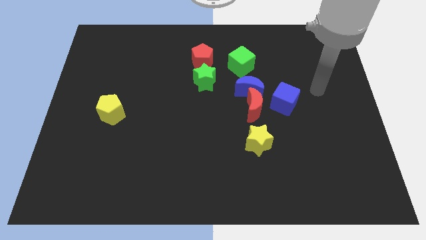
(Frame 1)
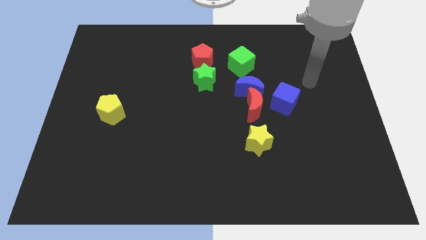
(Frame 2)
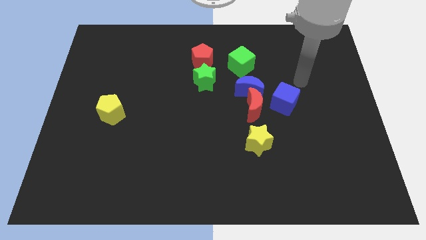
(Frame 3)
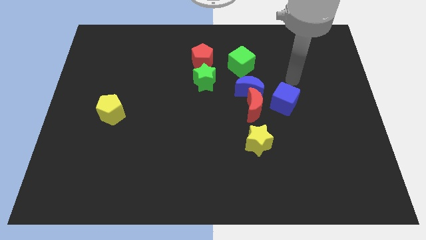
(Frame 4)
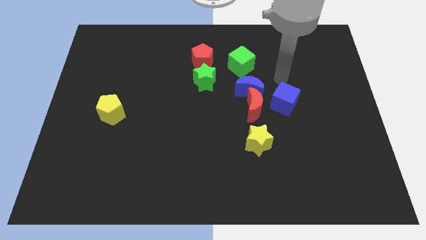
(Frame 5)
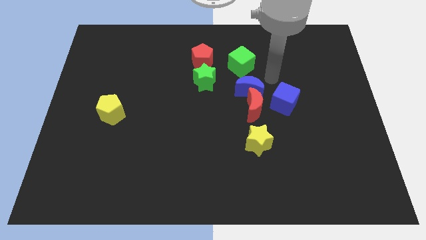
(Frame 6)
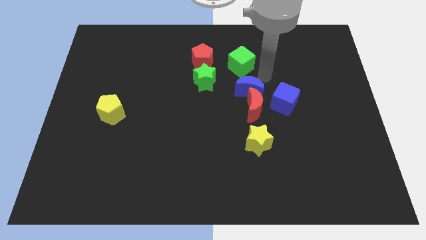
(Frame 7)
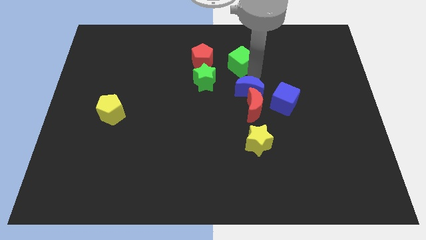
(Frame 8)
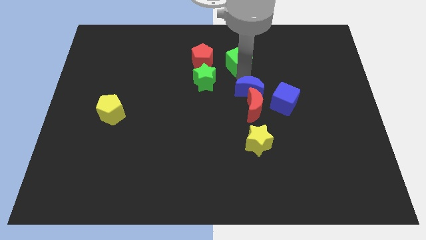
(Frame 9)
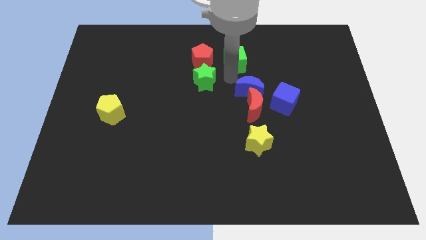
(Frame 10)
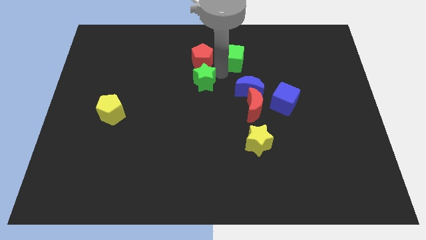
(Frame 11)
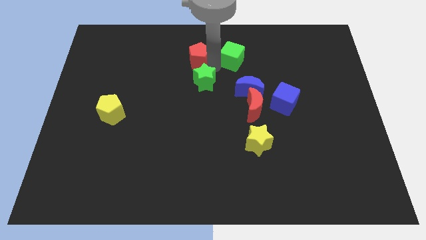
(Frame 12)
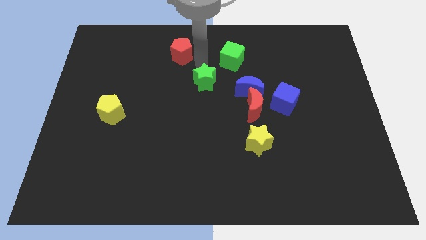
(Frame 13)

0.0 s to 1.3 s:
move the green star away from the red pentagon

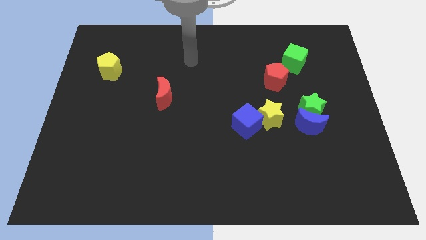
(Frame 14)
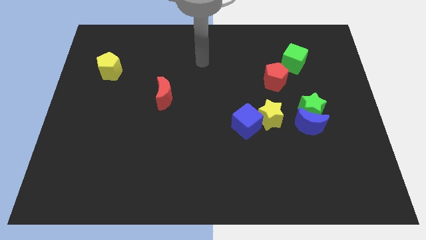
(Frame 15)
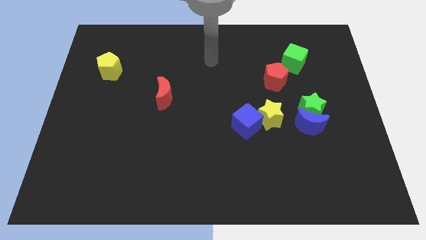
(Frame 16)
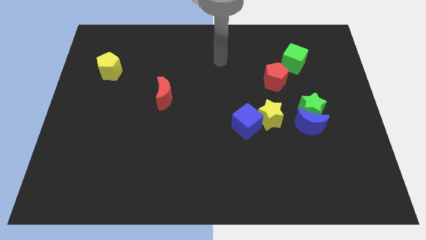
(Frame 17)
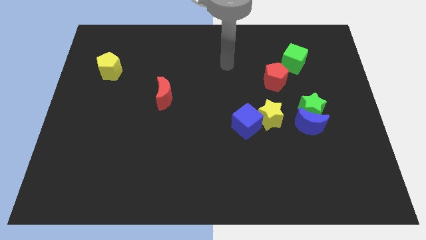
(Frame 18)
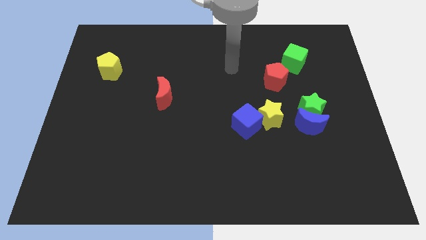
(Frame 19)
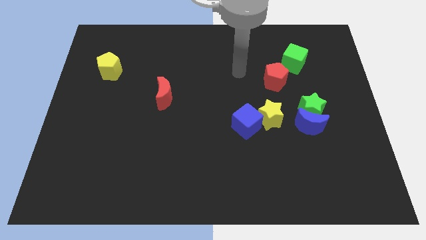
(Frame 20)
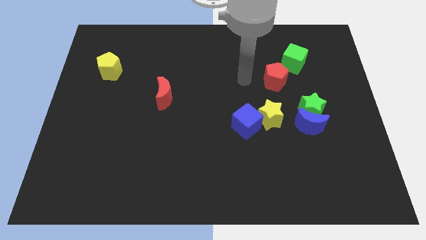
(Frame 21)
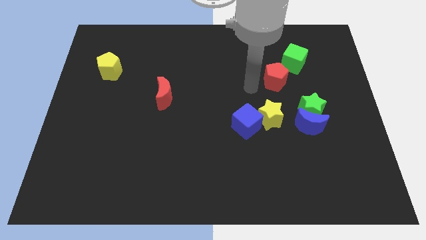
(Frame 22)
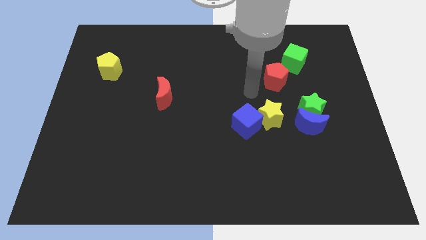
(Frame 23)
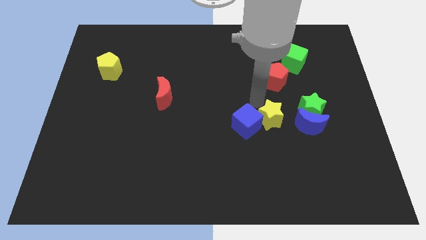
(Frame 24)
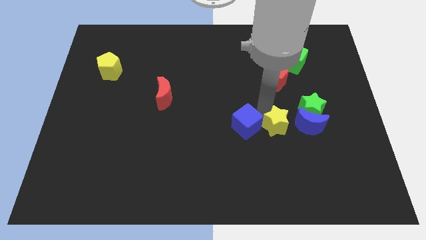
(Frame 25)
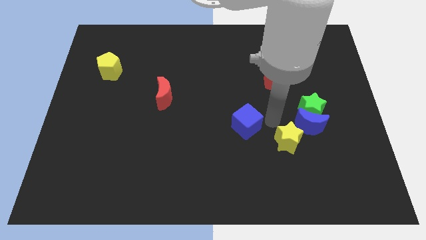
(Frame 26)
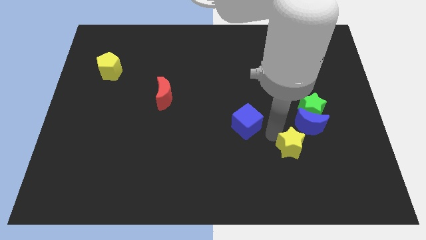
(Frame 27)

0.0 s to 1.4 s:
pull the blue cube apart from the yellow star

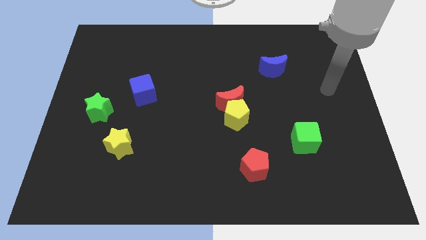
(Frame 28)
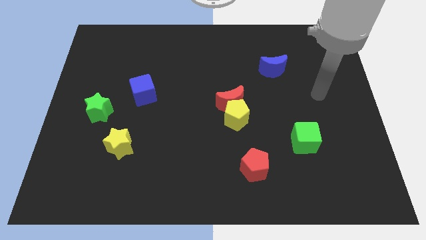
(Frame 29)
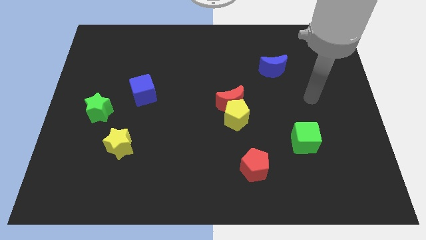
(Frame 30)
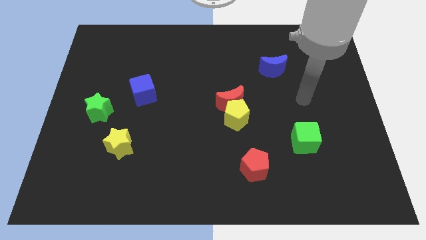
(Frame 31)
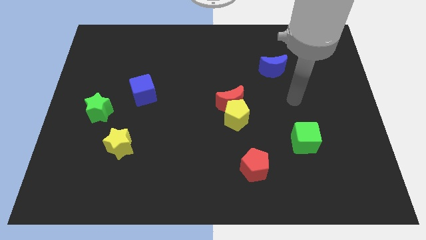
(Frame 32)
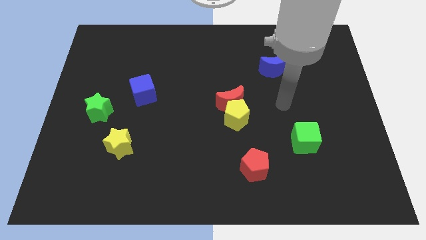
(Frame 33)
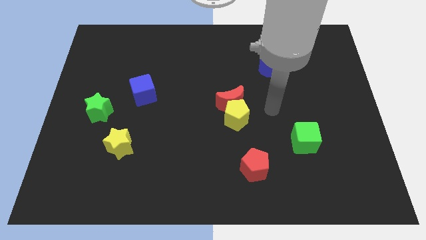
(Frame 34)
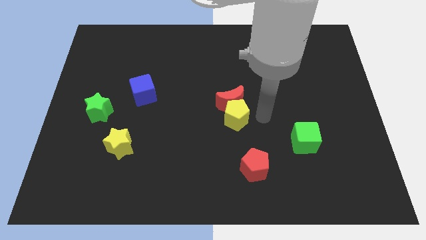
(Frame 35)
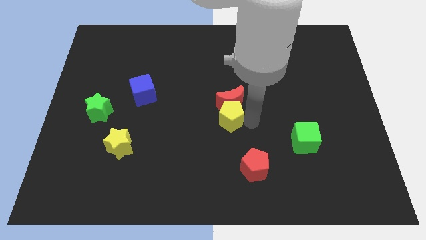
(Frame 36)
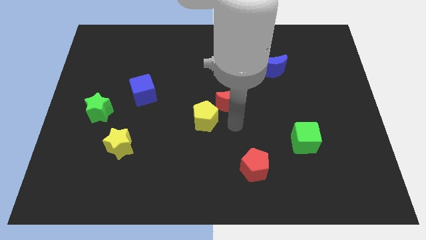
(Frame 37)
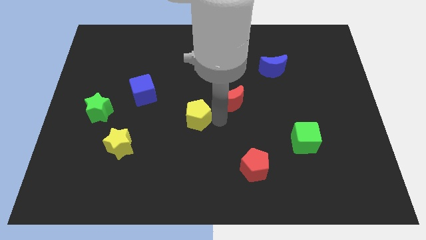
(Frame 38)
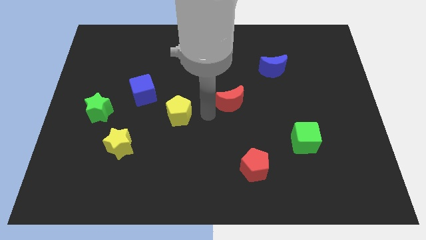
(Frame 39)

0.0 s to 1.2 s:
move the red moon away from the yellow pentagon

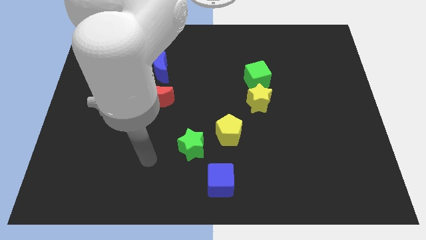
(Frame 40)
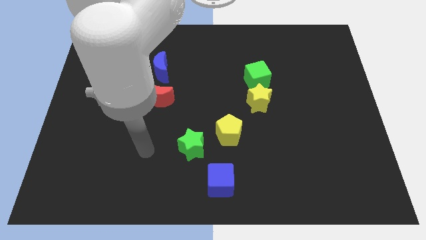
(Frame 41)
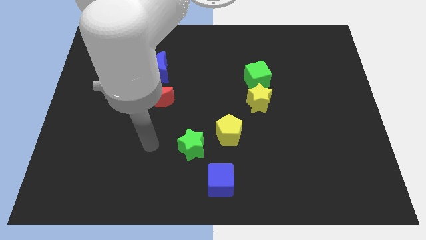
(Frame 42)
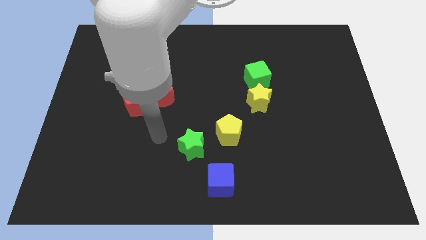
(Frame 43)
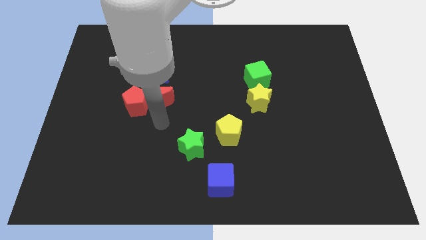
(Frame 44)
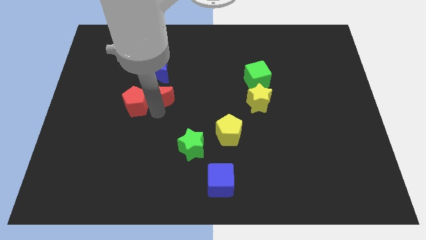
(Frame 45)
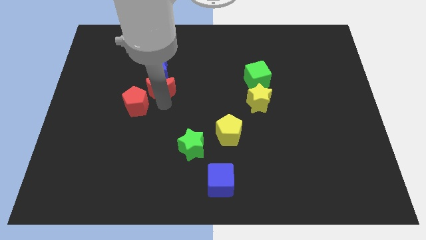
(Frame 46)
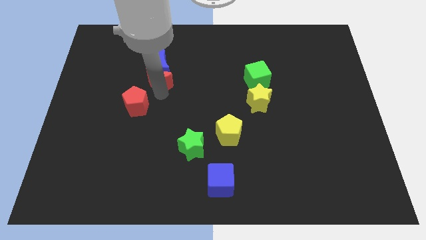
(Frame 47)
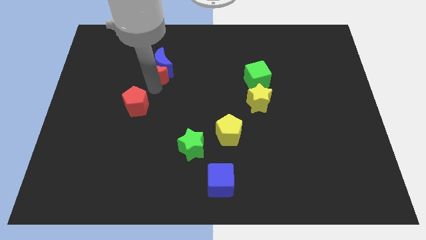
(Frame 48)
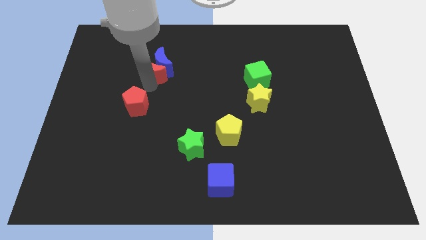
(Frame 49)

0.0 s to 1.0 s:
move the red pentagon away from the red moon

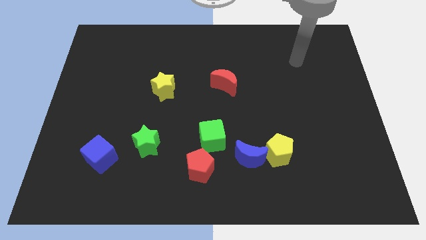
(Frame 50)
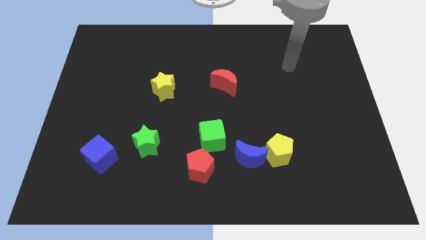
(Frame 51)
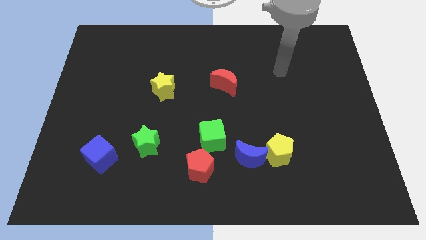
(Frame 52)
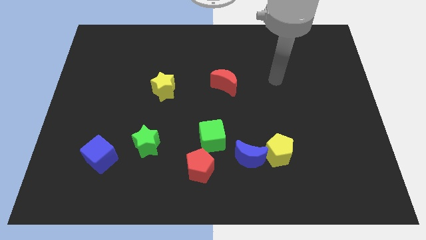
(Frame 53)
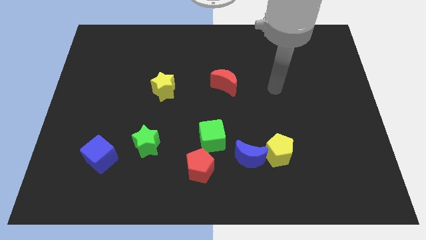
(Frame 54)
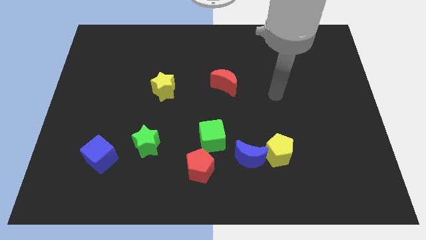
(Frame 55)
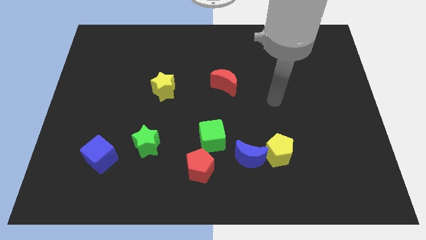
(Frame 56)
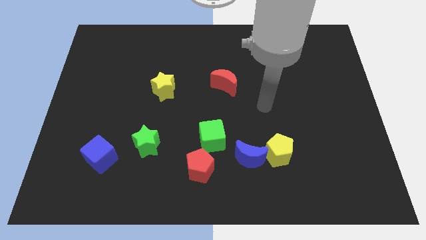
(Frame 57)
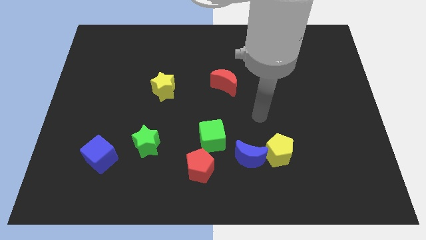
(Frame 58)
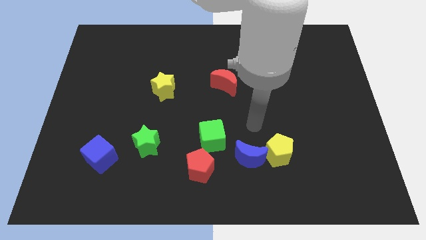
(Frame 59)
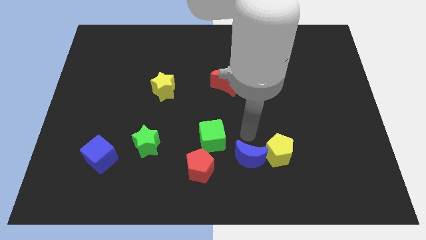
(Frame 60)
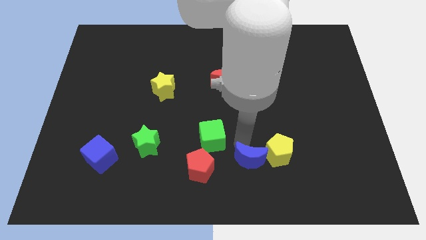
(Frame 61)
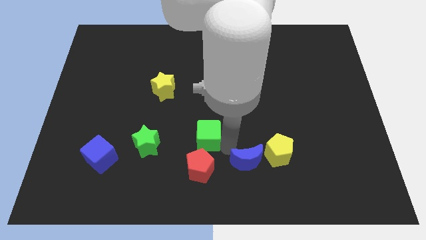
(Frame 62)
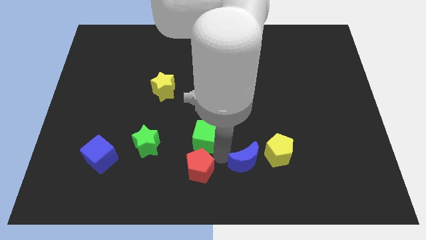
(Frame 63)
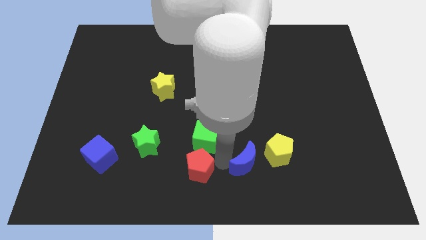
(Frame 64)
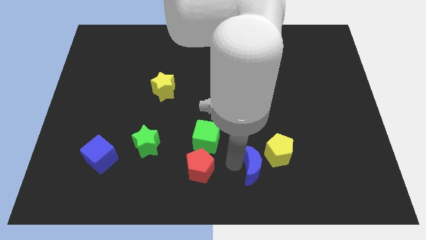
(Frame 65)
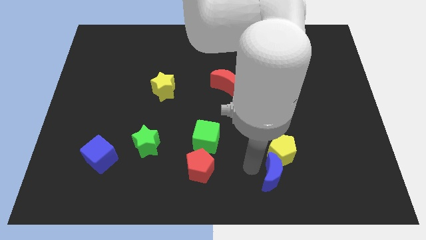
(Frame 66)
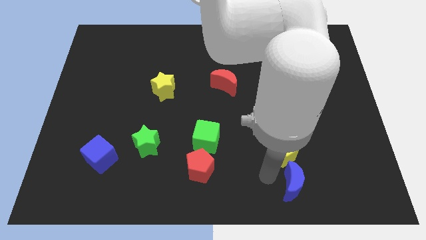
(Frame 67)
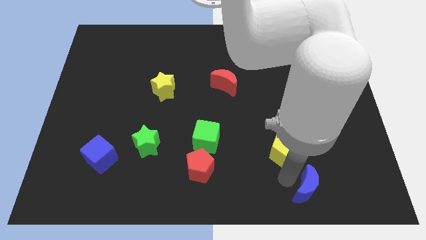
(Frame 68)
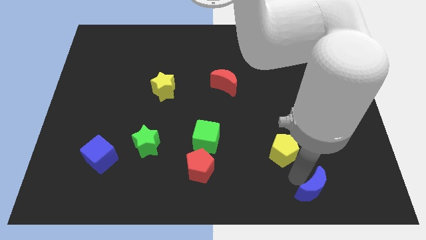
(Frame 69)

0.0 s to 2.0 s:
move the yellow pentagon away from the blue moon

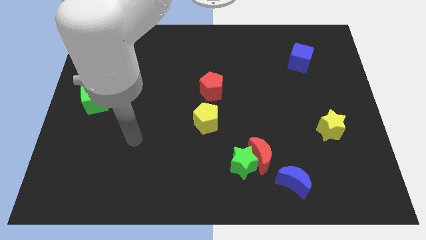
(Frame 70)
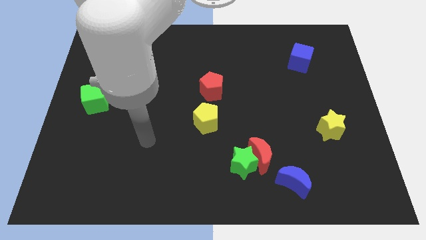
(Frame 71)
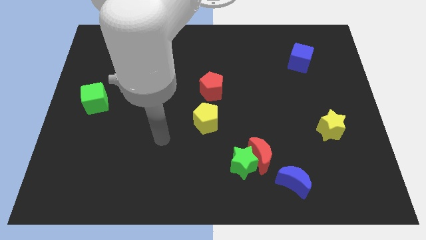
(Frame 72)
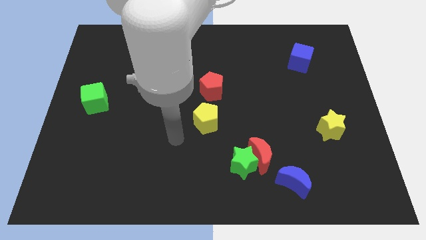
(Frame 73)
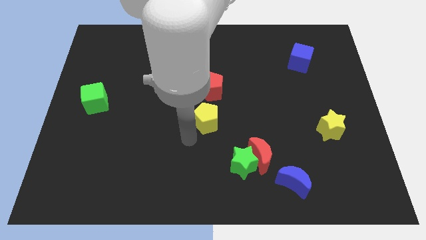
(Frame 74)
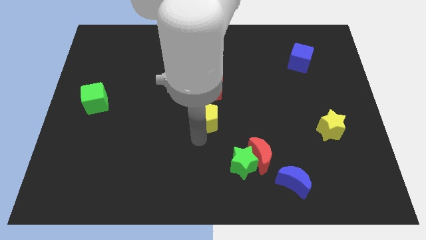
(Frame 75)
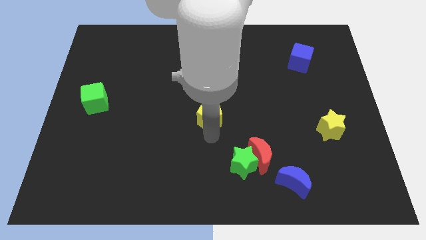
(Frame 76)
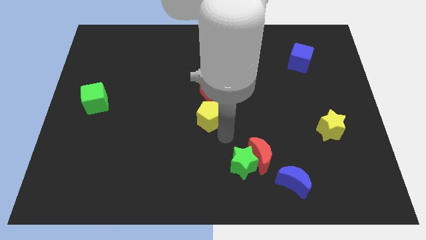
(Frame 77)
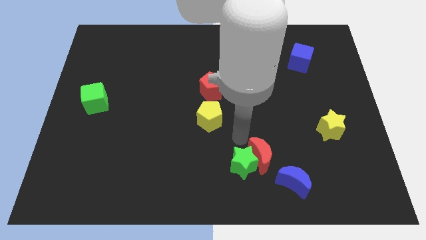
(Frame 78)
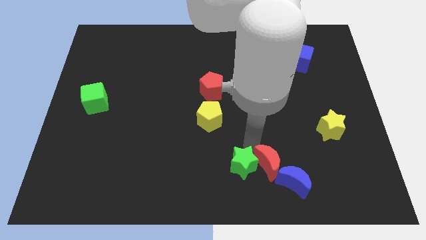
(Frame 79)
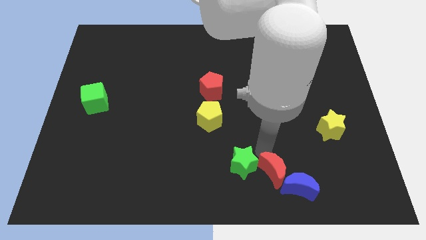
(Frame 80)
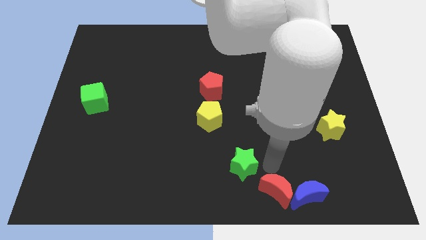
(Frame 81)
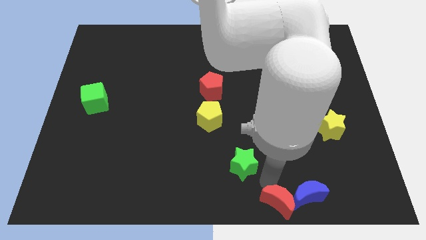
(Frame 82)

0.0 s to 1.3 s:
separate the green star from the red moon

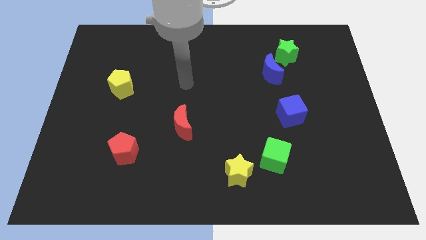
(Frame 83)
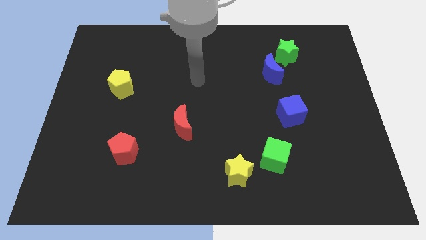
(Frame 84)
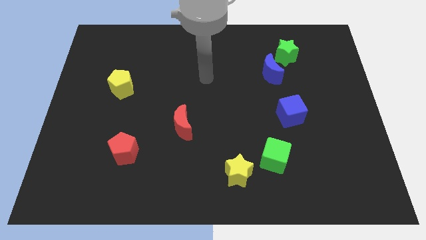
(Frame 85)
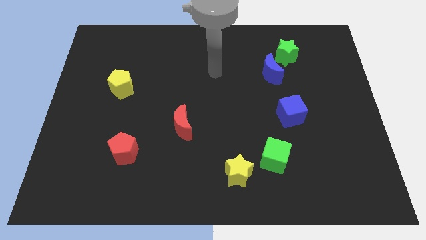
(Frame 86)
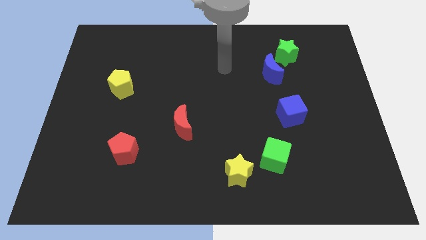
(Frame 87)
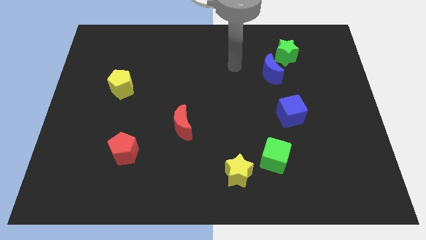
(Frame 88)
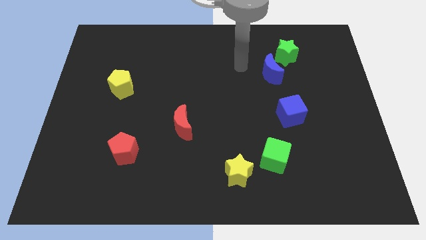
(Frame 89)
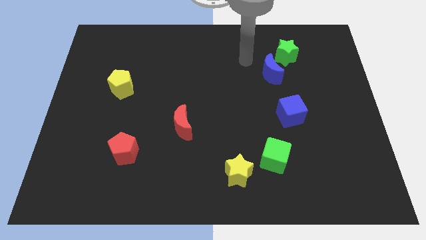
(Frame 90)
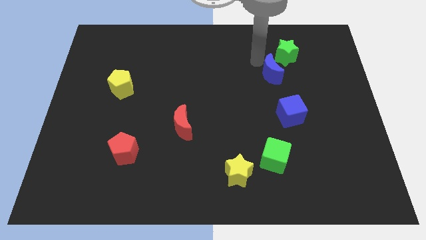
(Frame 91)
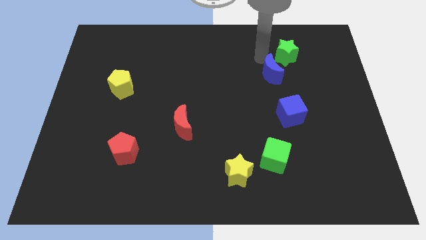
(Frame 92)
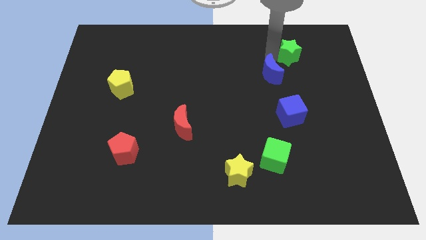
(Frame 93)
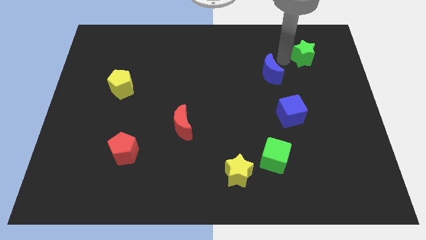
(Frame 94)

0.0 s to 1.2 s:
pull the blue moon apart from the green star
